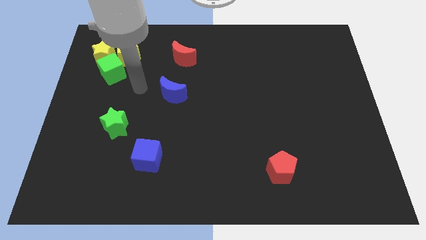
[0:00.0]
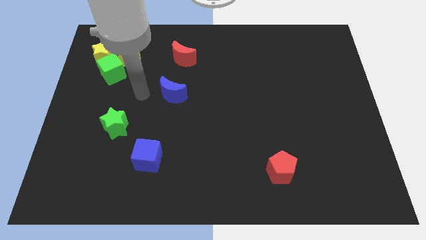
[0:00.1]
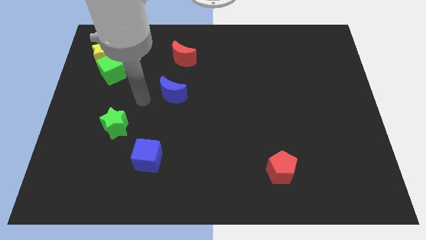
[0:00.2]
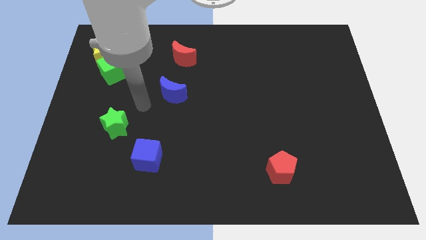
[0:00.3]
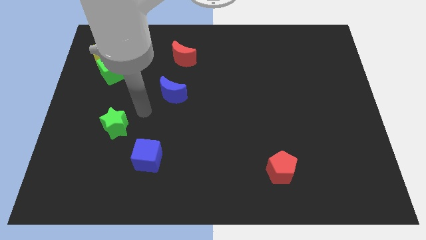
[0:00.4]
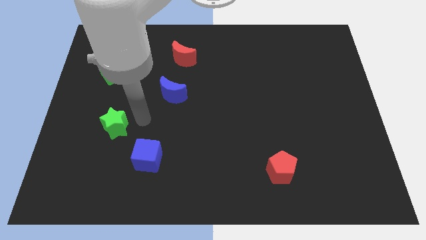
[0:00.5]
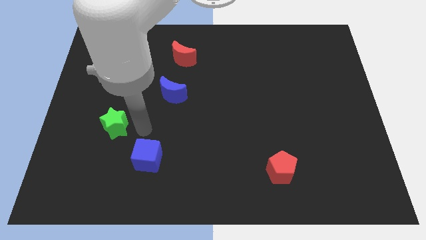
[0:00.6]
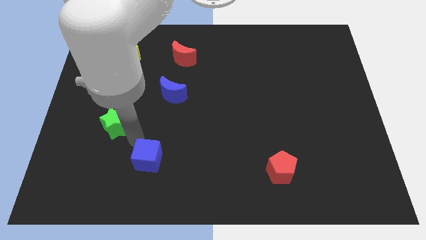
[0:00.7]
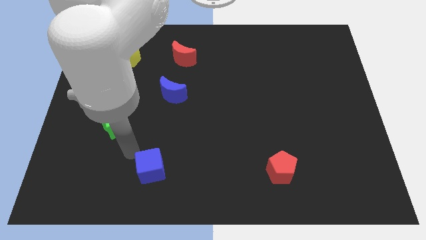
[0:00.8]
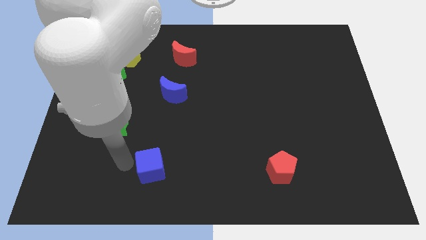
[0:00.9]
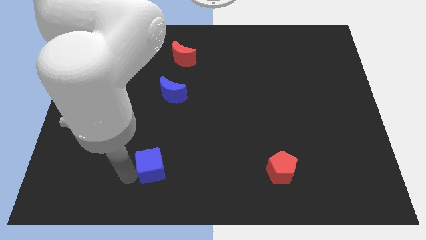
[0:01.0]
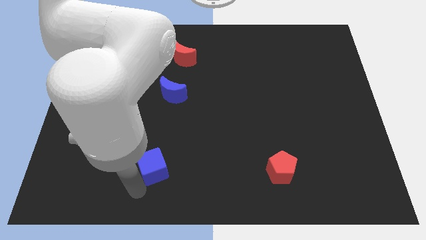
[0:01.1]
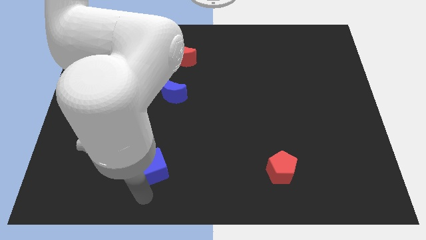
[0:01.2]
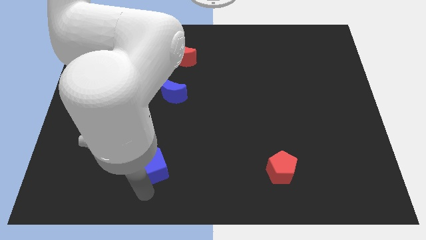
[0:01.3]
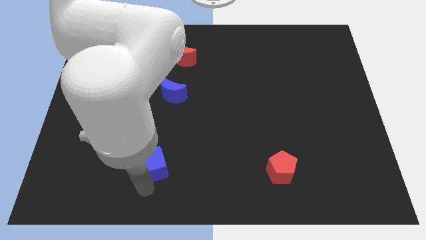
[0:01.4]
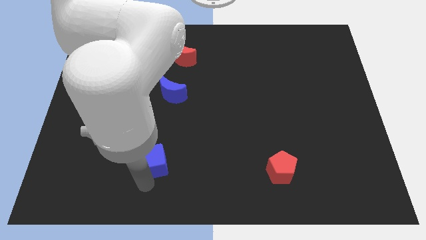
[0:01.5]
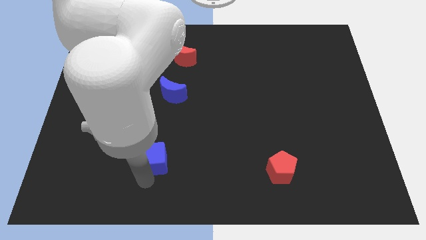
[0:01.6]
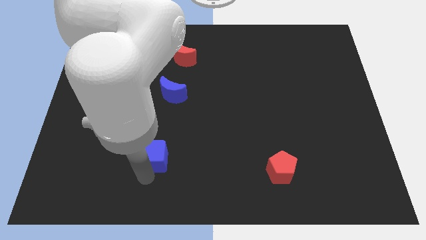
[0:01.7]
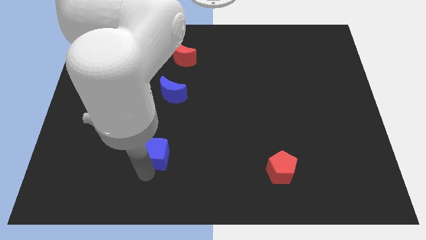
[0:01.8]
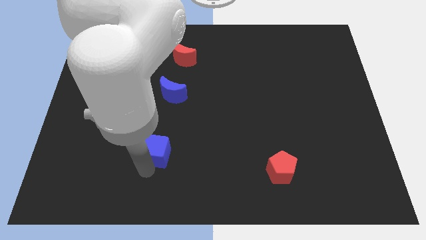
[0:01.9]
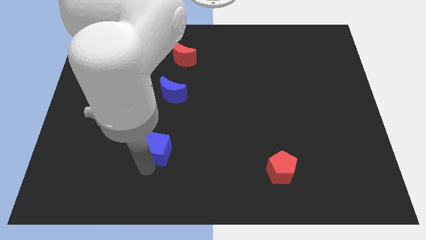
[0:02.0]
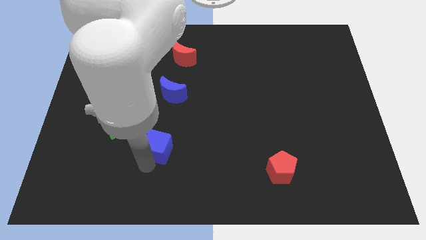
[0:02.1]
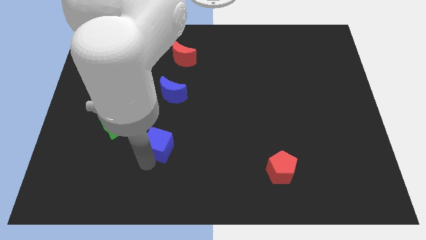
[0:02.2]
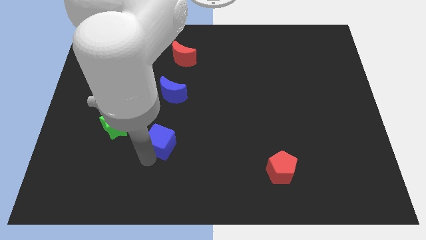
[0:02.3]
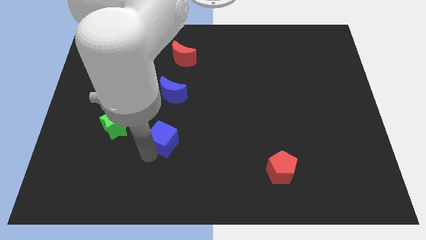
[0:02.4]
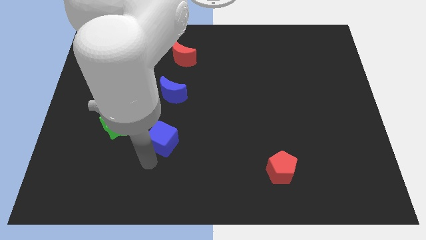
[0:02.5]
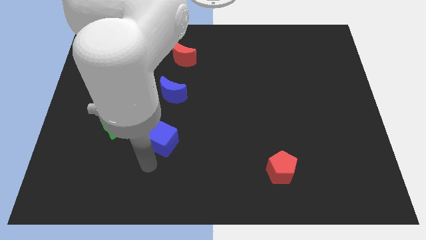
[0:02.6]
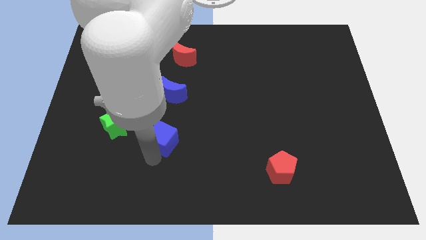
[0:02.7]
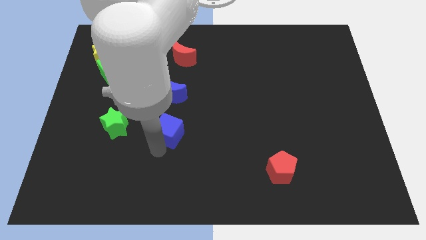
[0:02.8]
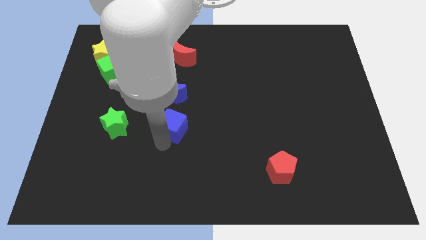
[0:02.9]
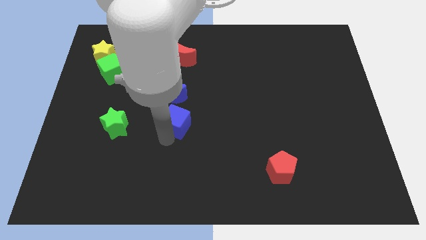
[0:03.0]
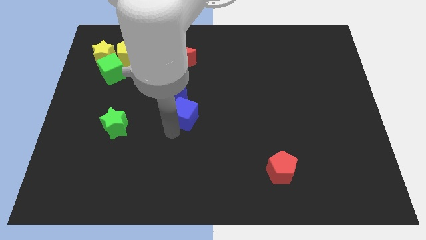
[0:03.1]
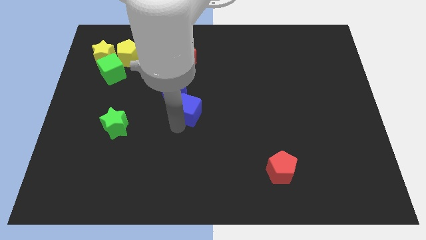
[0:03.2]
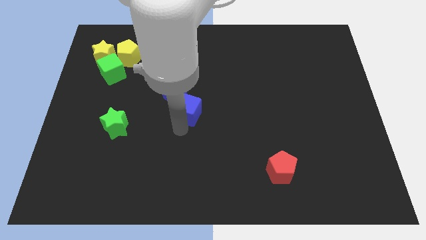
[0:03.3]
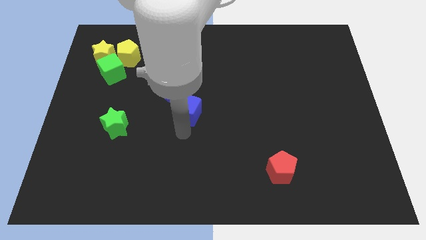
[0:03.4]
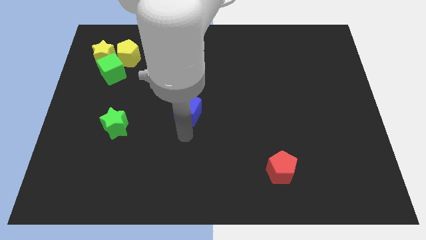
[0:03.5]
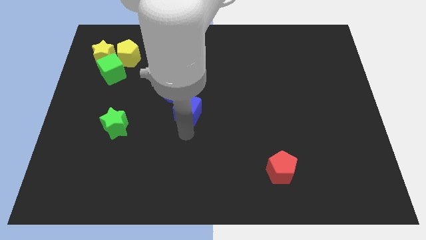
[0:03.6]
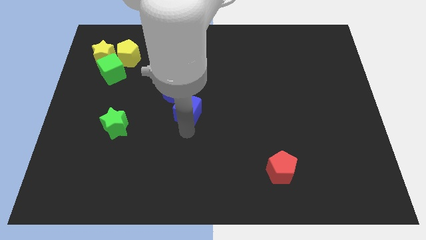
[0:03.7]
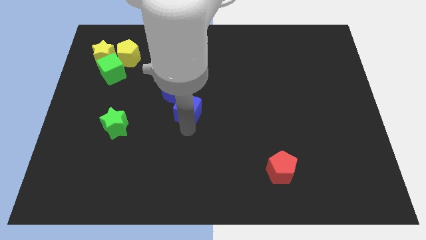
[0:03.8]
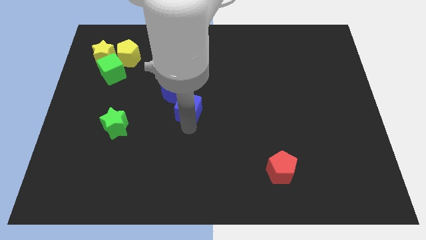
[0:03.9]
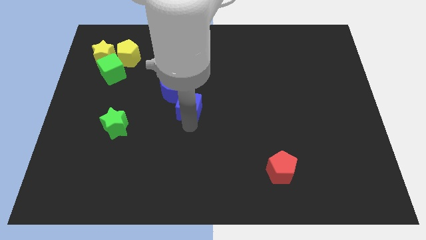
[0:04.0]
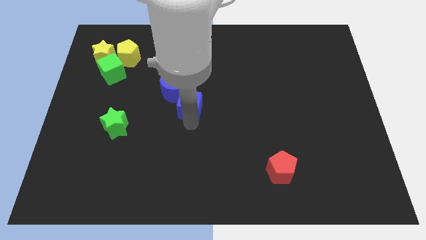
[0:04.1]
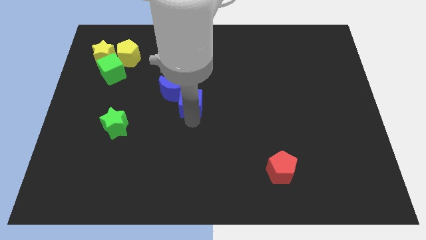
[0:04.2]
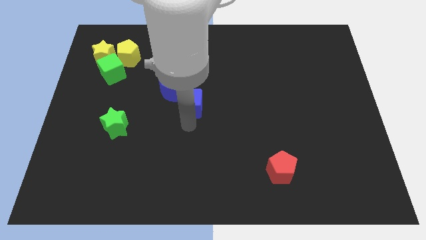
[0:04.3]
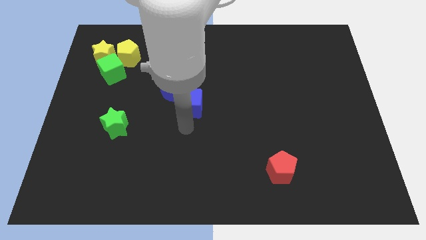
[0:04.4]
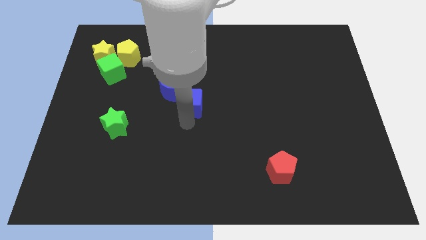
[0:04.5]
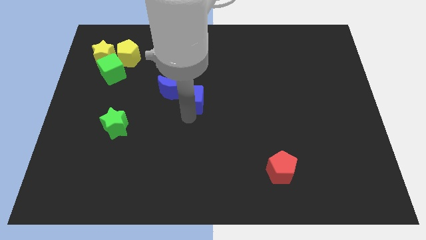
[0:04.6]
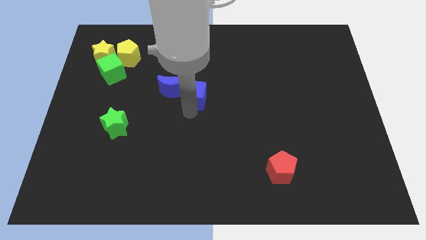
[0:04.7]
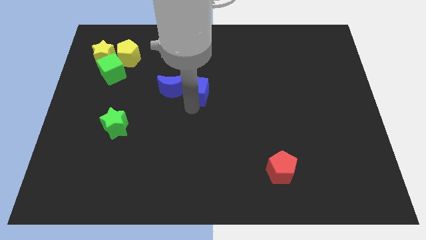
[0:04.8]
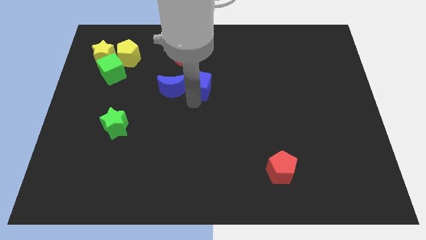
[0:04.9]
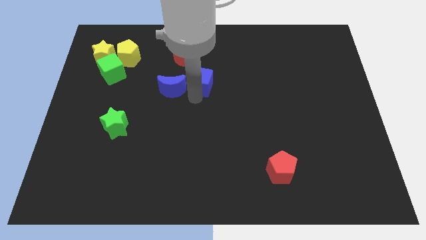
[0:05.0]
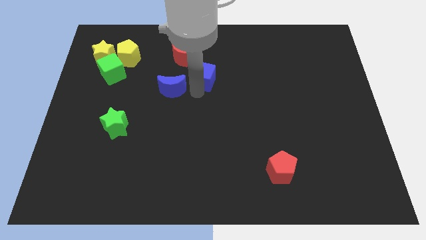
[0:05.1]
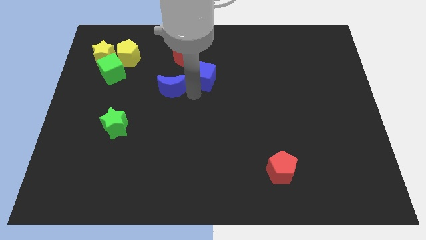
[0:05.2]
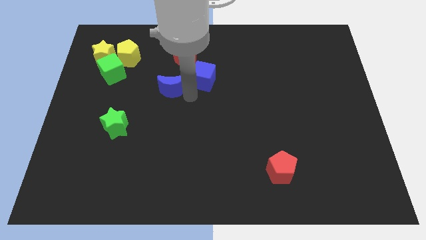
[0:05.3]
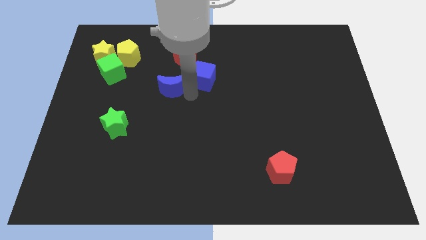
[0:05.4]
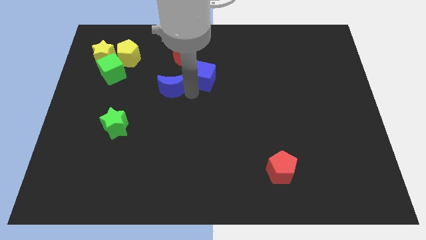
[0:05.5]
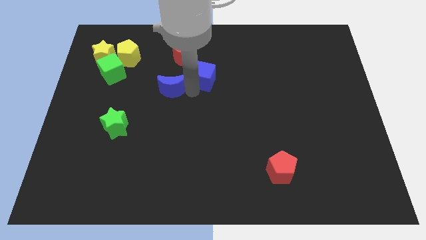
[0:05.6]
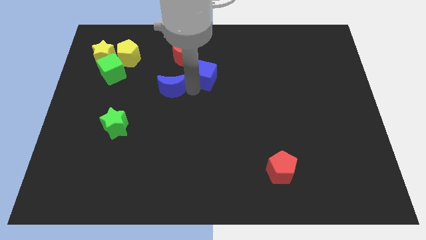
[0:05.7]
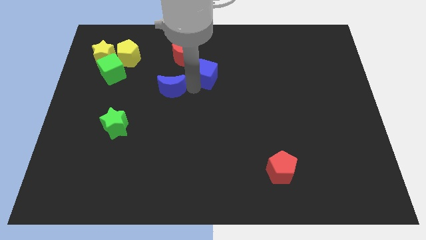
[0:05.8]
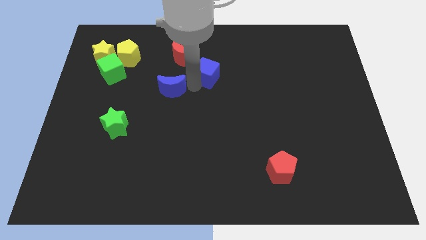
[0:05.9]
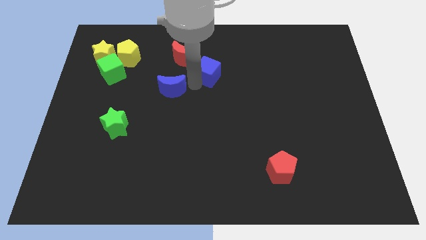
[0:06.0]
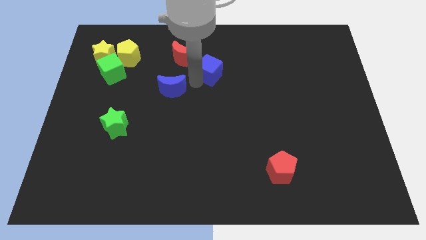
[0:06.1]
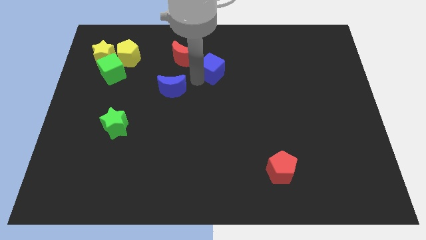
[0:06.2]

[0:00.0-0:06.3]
move the blue cube right of the red moon

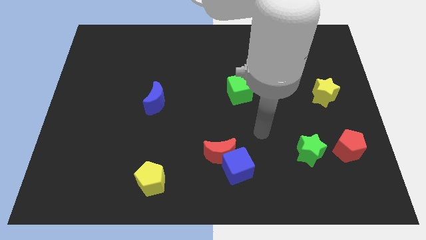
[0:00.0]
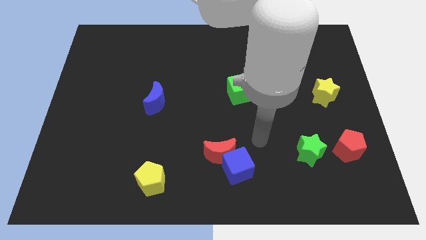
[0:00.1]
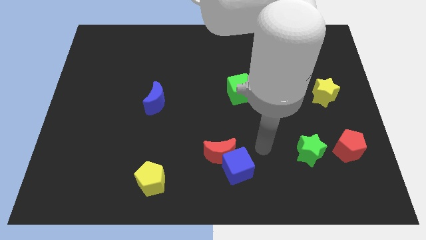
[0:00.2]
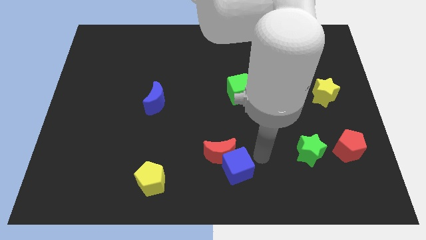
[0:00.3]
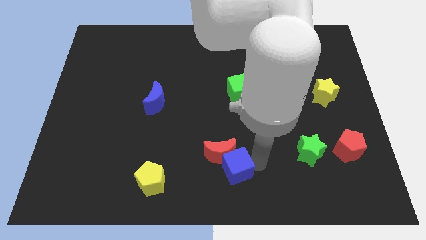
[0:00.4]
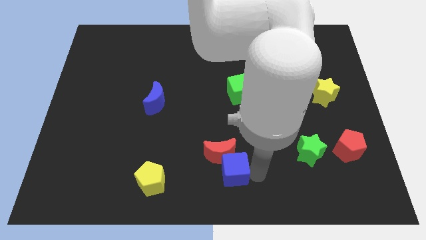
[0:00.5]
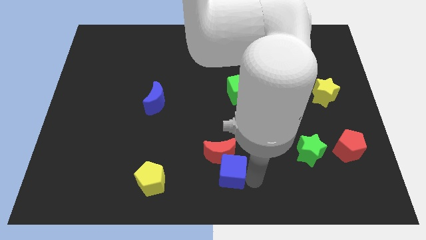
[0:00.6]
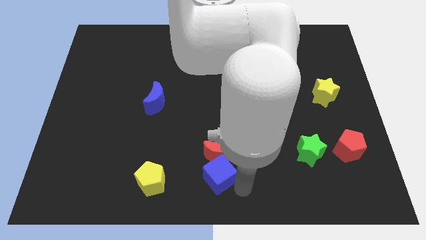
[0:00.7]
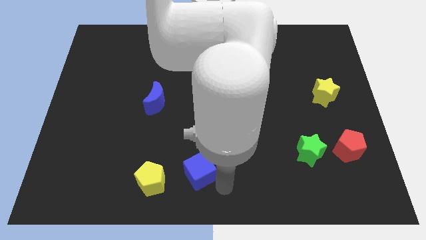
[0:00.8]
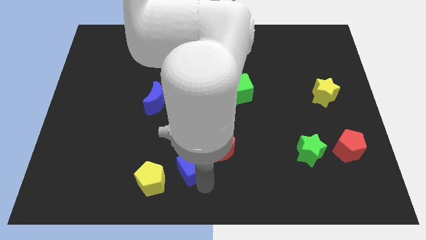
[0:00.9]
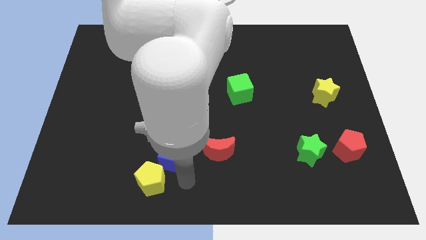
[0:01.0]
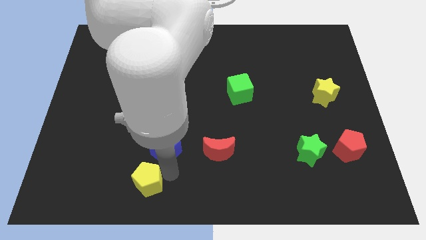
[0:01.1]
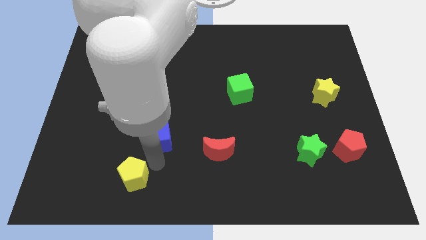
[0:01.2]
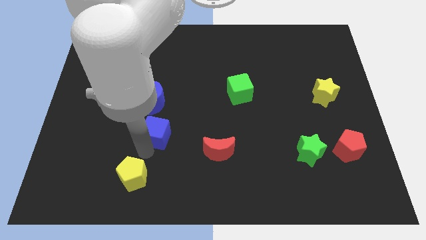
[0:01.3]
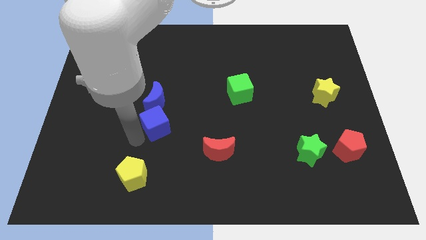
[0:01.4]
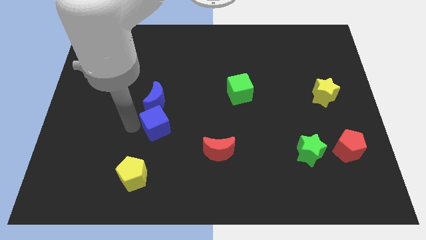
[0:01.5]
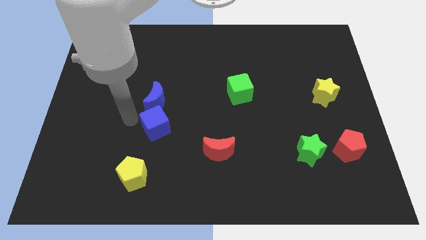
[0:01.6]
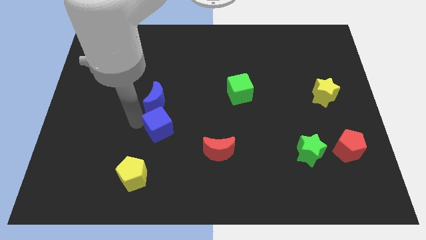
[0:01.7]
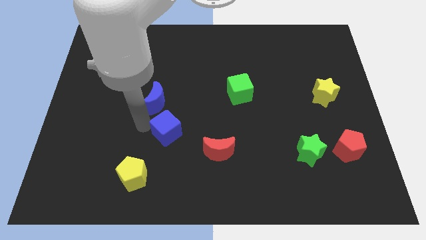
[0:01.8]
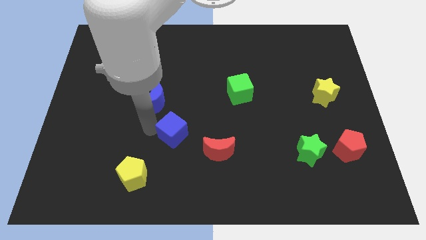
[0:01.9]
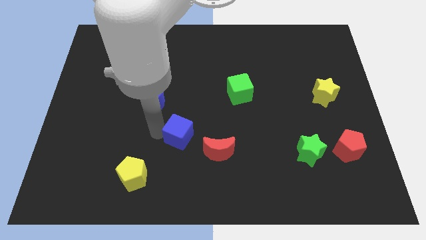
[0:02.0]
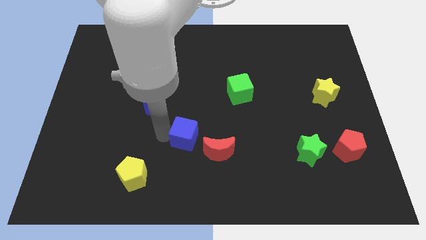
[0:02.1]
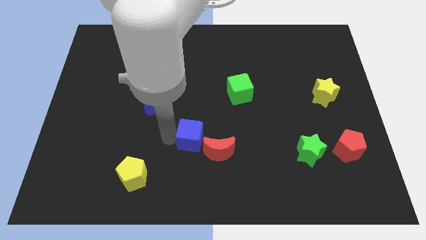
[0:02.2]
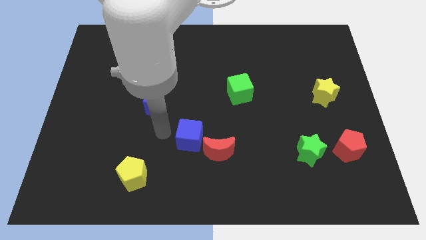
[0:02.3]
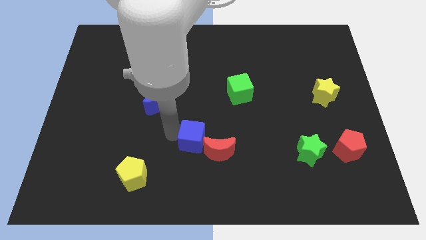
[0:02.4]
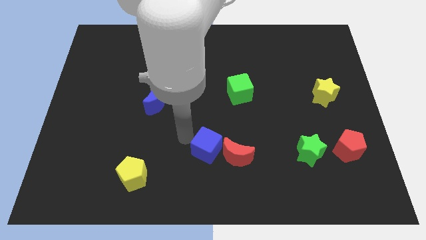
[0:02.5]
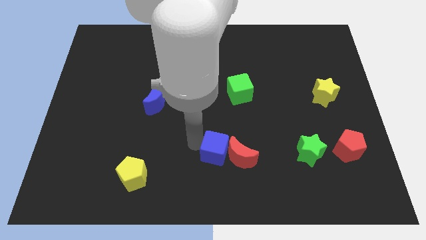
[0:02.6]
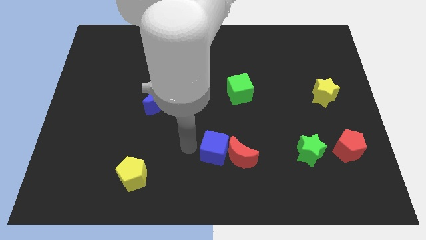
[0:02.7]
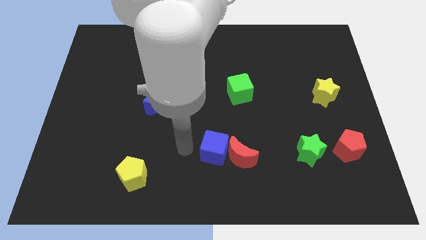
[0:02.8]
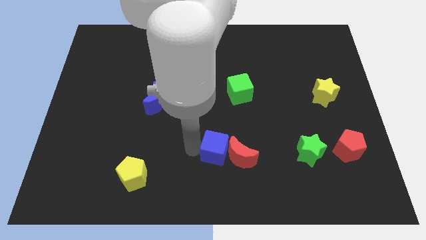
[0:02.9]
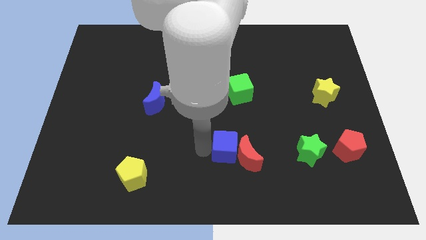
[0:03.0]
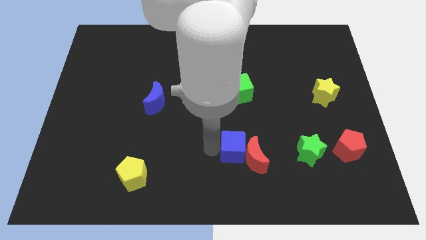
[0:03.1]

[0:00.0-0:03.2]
slide the blue cube to the left side of the green star
